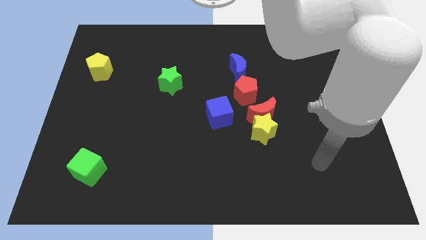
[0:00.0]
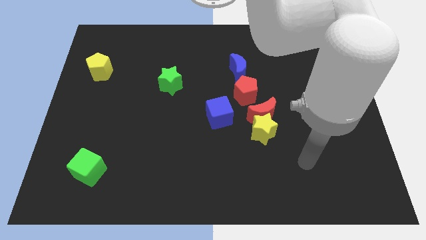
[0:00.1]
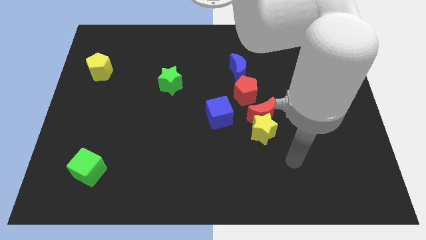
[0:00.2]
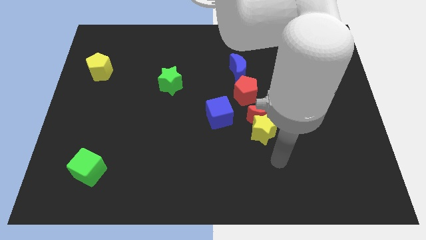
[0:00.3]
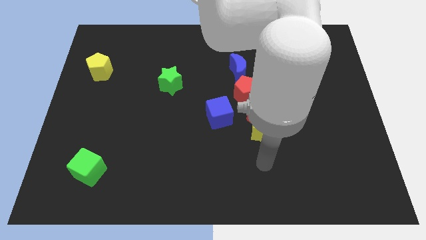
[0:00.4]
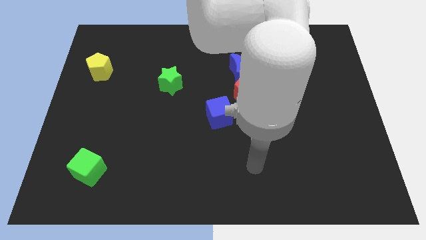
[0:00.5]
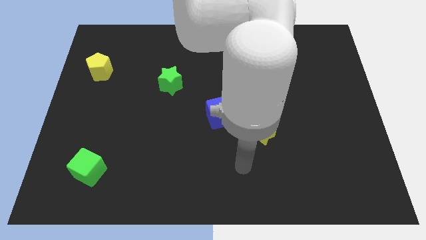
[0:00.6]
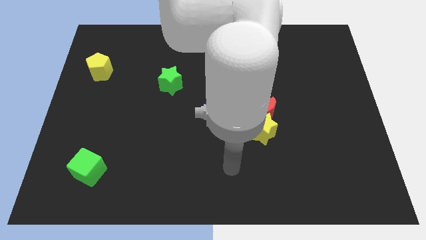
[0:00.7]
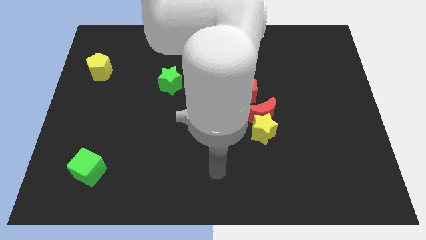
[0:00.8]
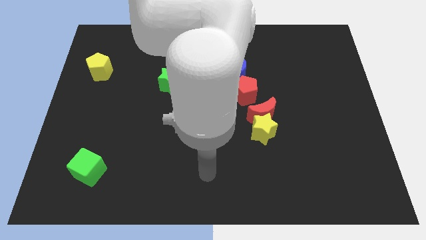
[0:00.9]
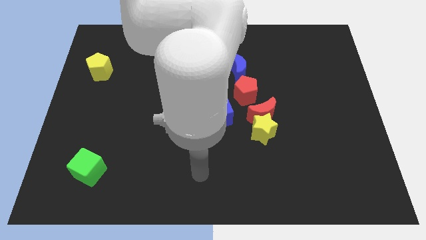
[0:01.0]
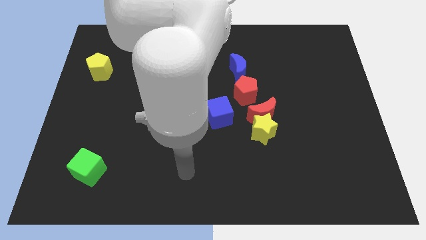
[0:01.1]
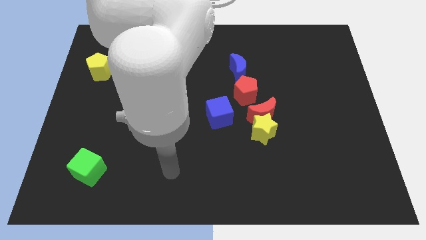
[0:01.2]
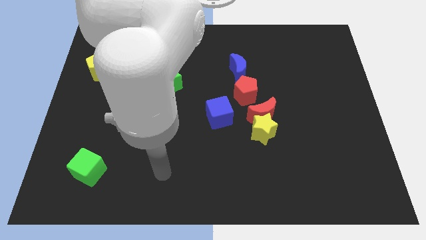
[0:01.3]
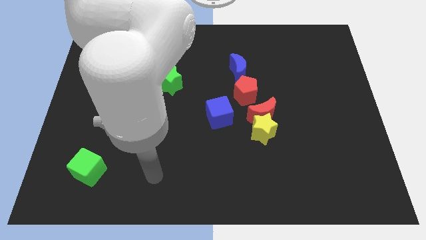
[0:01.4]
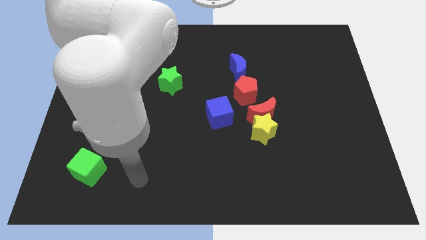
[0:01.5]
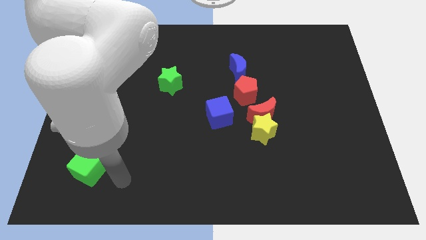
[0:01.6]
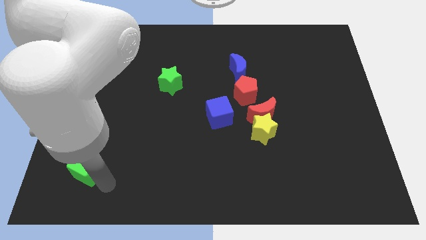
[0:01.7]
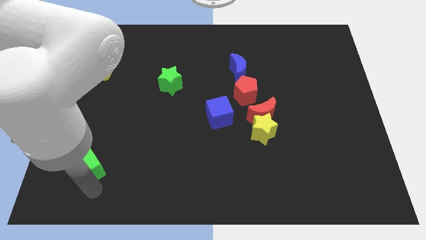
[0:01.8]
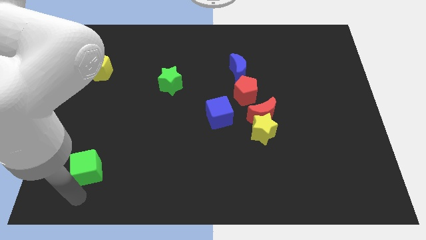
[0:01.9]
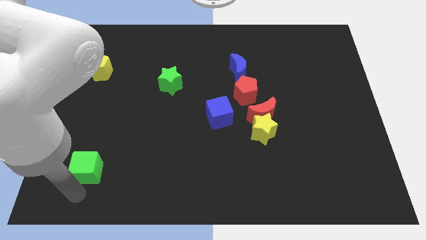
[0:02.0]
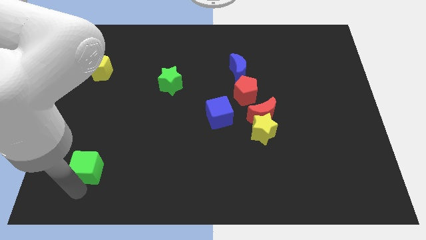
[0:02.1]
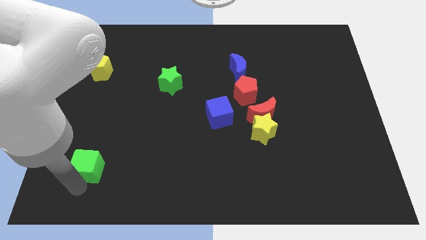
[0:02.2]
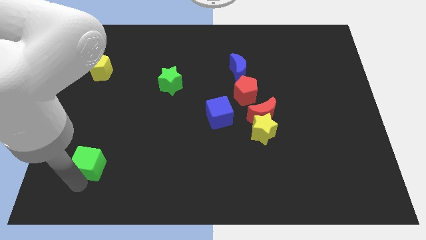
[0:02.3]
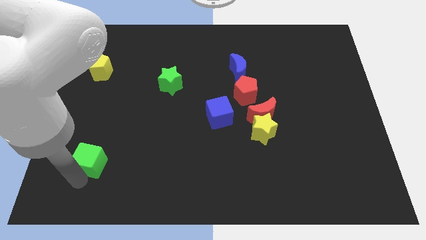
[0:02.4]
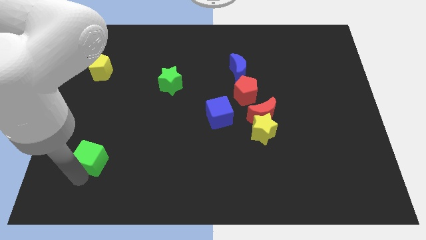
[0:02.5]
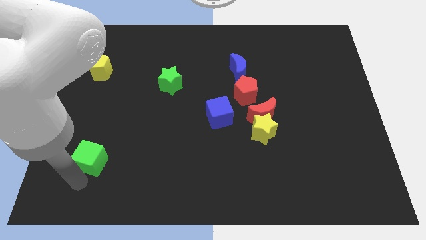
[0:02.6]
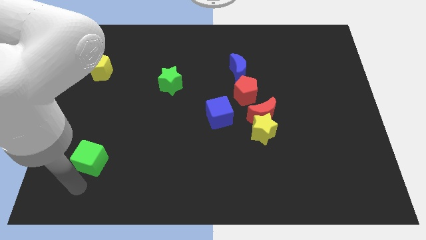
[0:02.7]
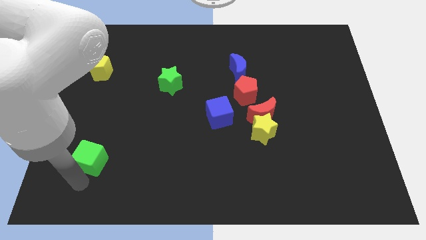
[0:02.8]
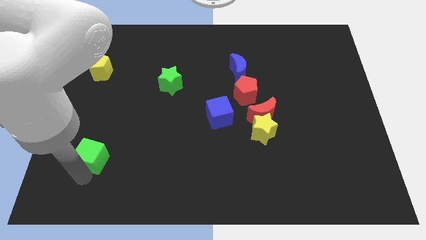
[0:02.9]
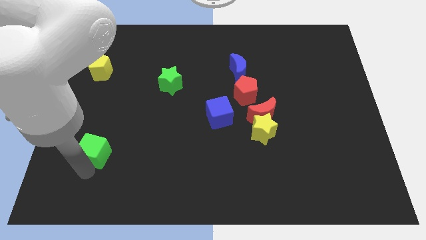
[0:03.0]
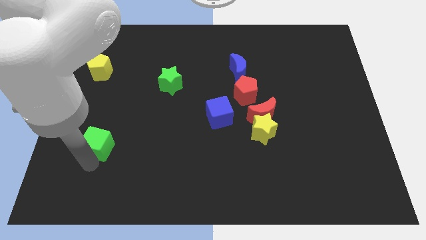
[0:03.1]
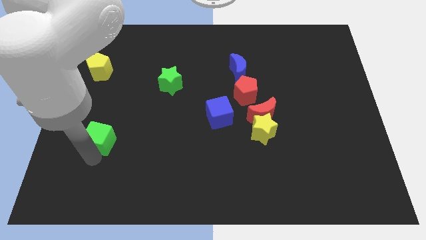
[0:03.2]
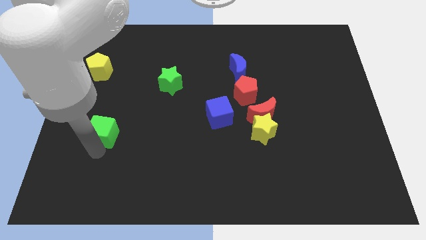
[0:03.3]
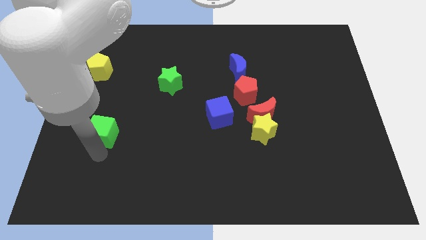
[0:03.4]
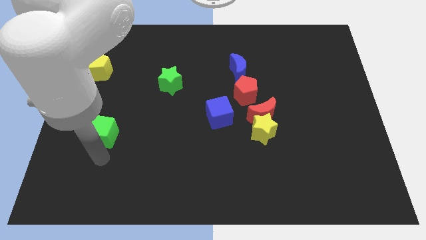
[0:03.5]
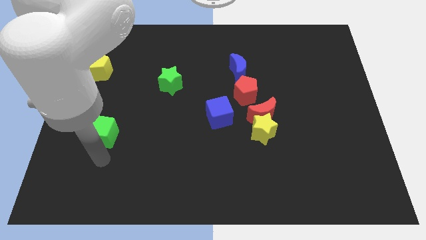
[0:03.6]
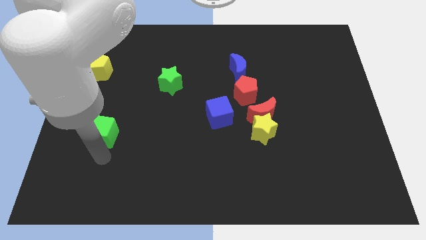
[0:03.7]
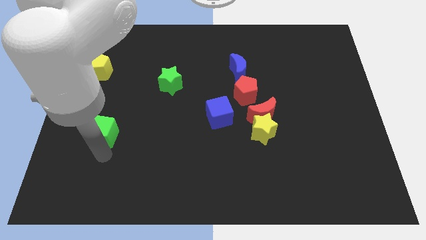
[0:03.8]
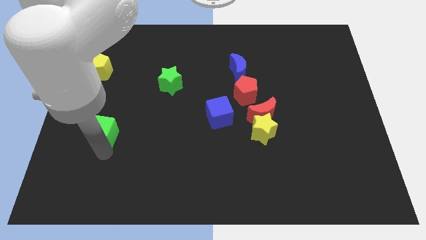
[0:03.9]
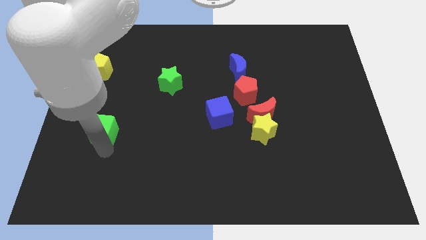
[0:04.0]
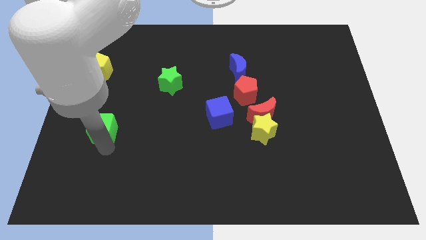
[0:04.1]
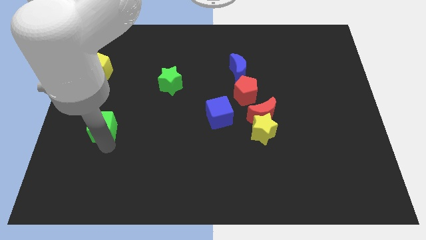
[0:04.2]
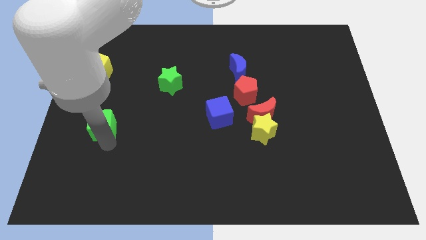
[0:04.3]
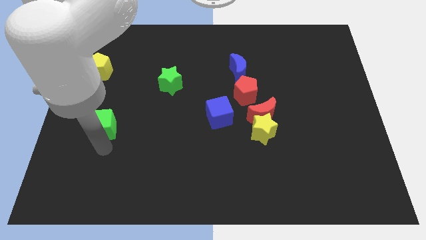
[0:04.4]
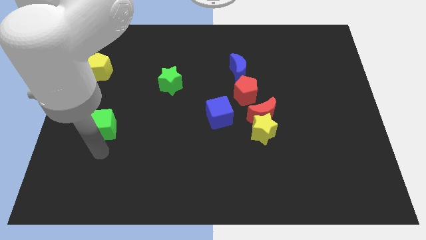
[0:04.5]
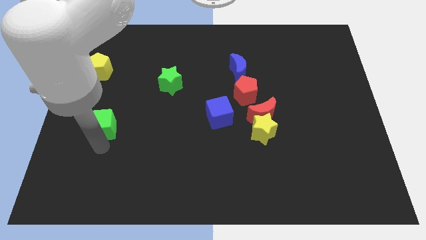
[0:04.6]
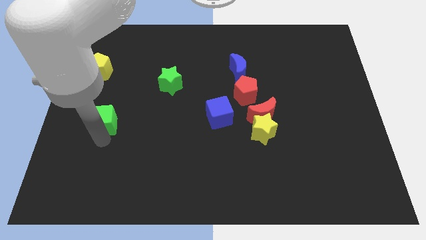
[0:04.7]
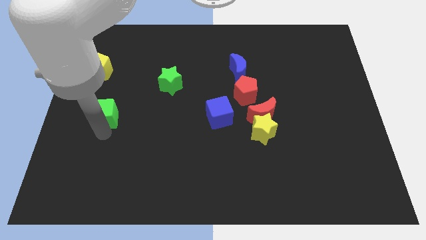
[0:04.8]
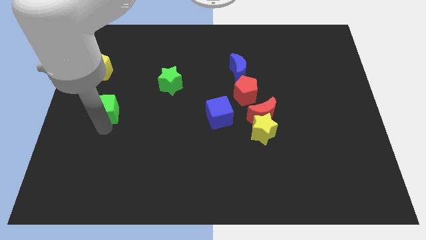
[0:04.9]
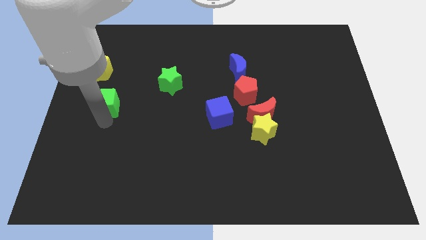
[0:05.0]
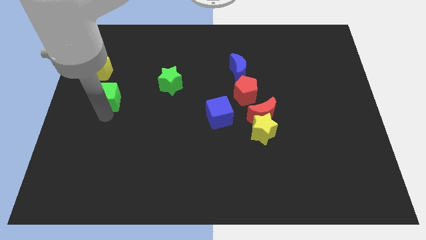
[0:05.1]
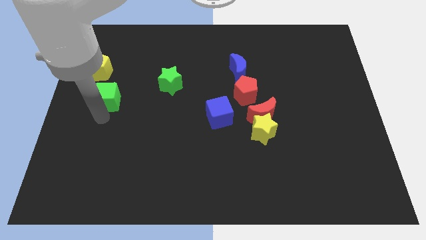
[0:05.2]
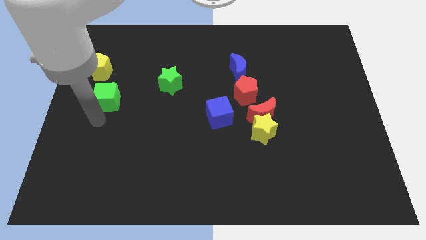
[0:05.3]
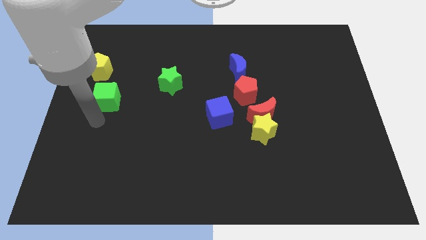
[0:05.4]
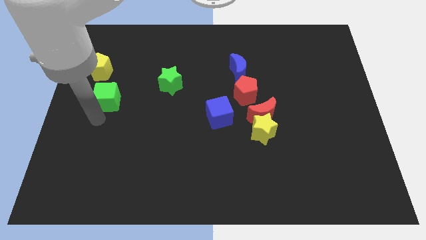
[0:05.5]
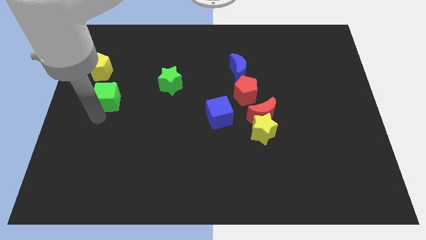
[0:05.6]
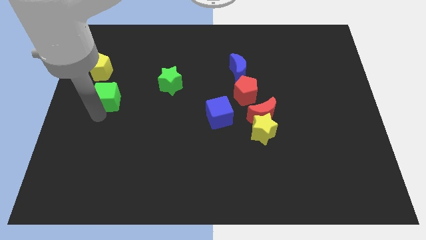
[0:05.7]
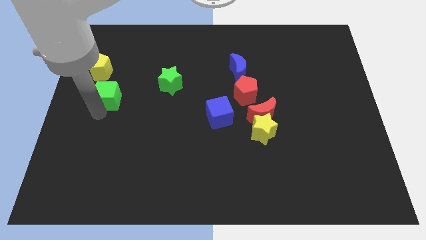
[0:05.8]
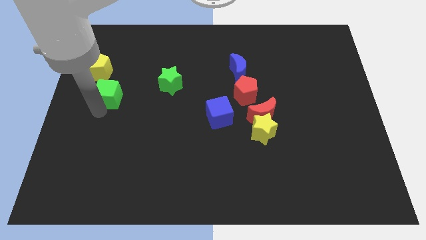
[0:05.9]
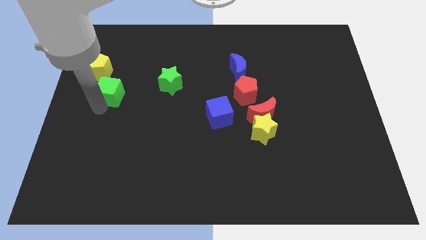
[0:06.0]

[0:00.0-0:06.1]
push the green cube upwards

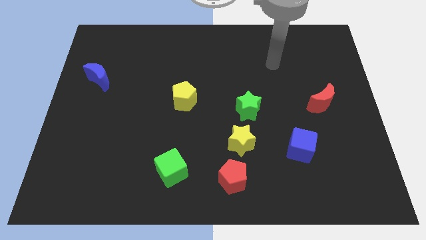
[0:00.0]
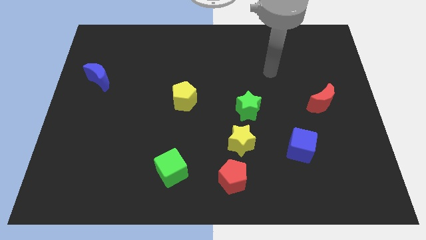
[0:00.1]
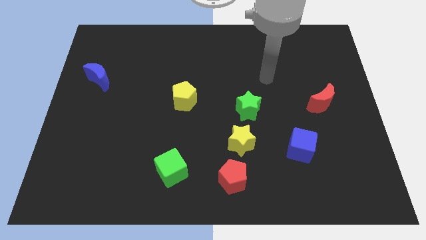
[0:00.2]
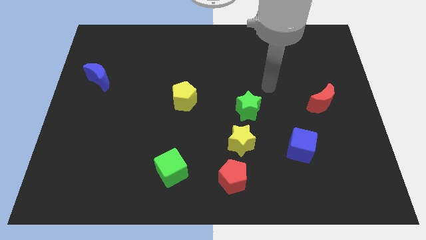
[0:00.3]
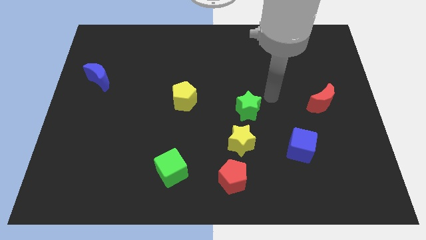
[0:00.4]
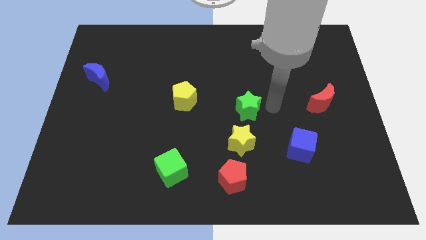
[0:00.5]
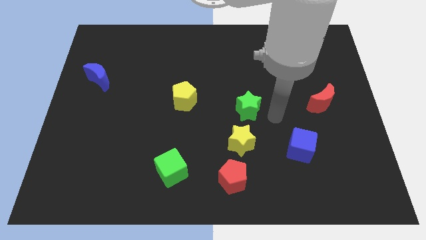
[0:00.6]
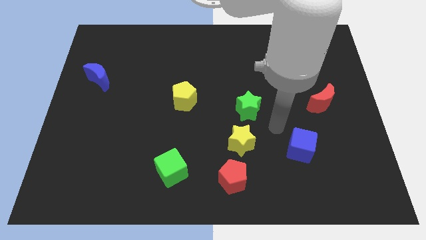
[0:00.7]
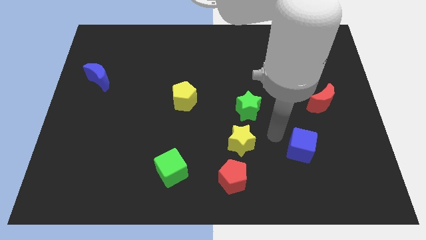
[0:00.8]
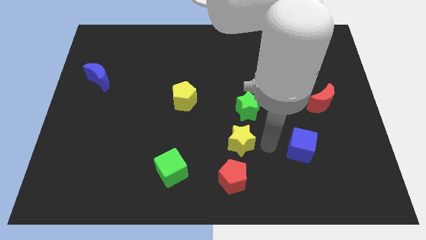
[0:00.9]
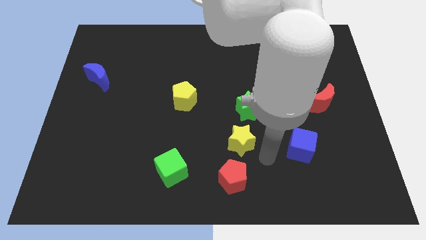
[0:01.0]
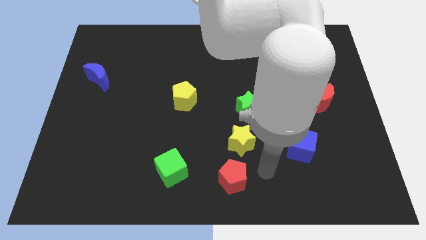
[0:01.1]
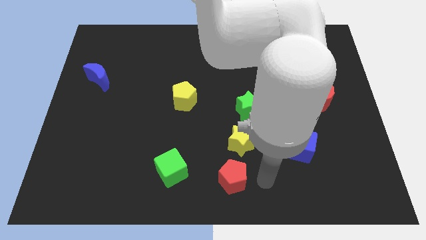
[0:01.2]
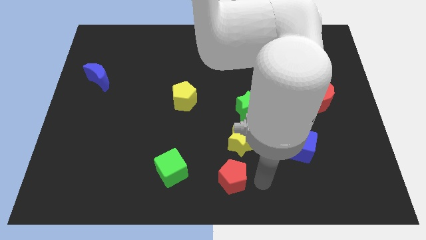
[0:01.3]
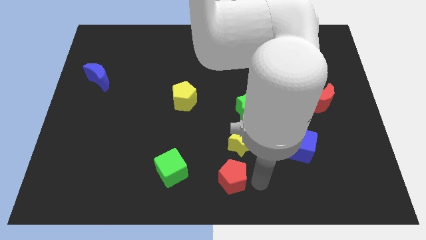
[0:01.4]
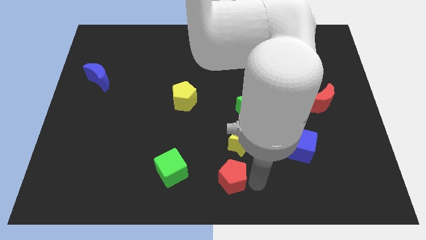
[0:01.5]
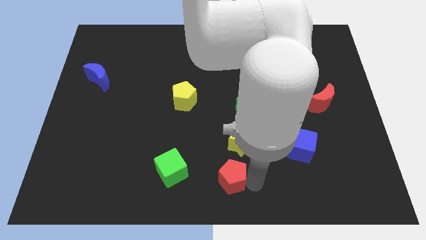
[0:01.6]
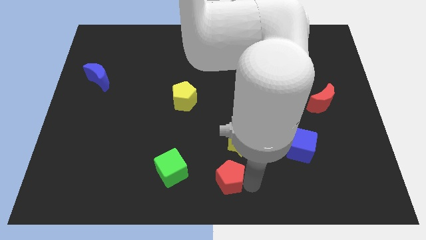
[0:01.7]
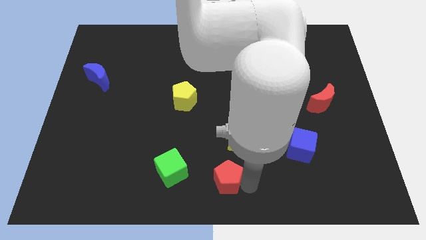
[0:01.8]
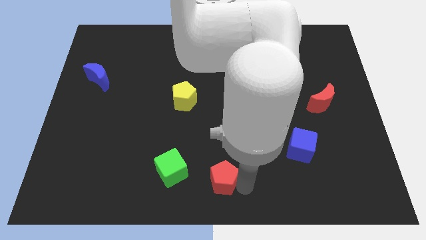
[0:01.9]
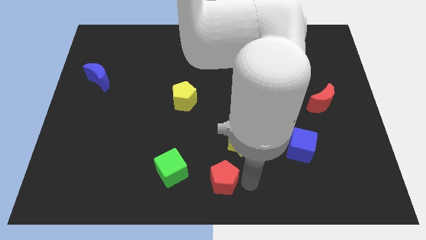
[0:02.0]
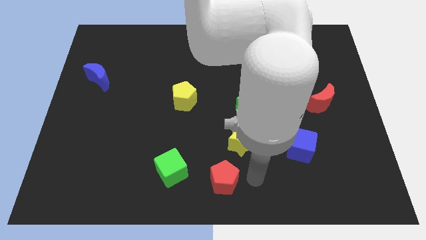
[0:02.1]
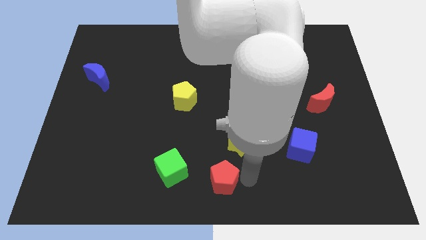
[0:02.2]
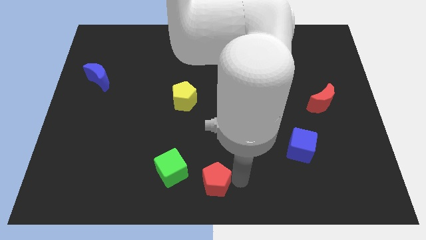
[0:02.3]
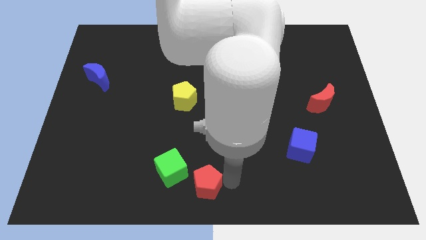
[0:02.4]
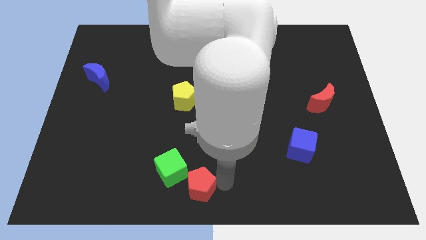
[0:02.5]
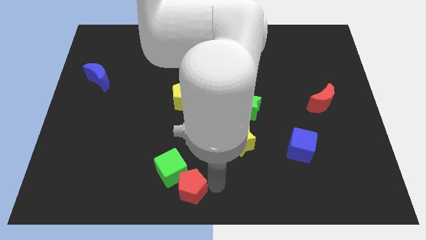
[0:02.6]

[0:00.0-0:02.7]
move the red pentagon left a little
